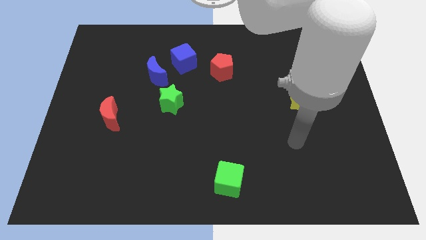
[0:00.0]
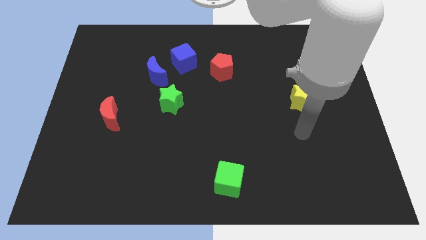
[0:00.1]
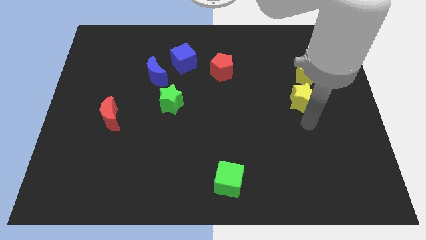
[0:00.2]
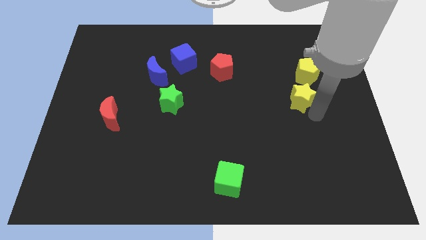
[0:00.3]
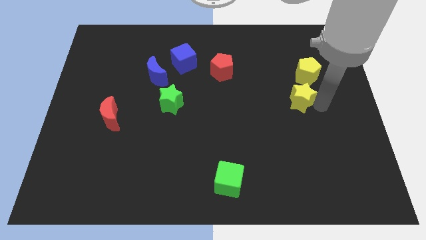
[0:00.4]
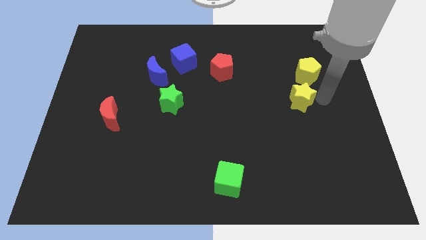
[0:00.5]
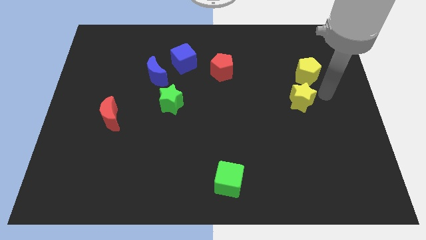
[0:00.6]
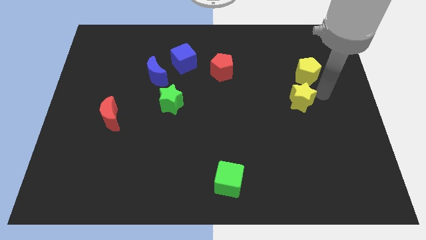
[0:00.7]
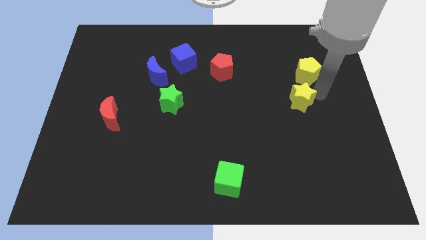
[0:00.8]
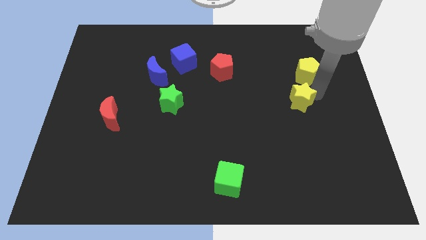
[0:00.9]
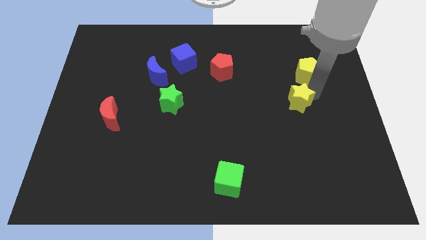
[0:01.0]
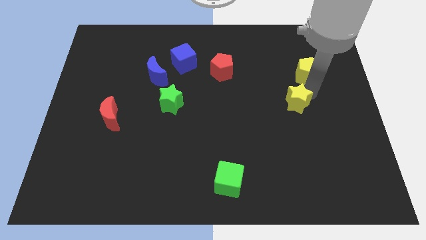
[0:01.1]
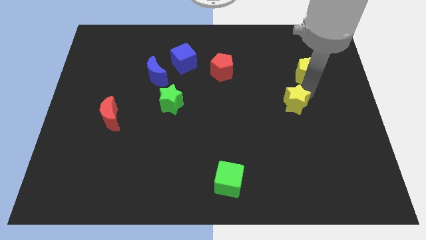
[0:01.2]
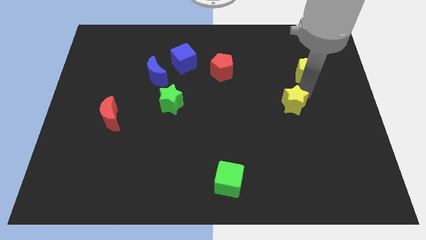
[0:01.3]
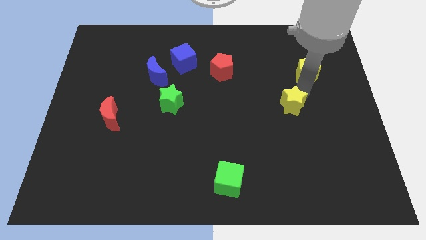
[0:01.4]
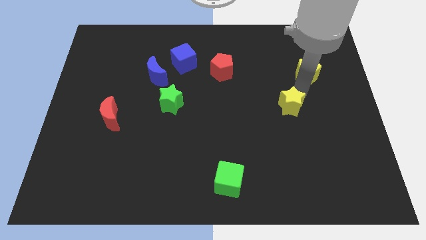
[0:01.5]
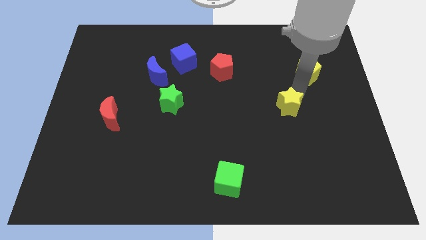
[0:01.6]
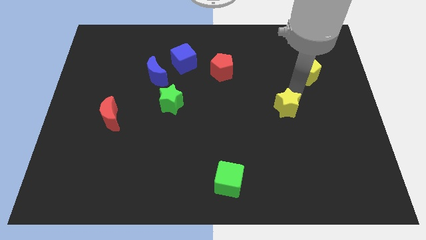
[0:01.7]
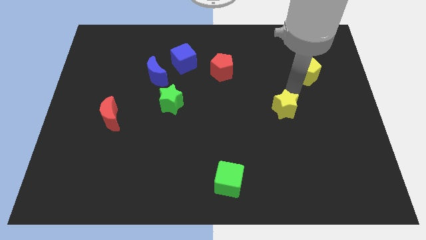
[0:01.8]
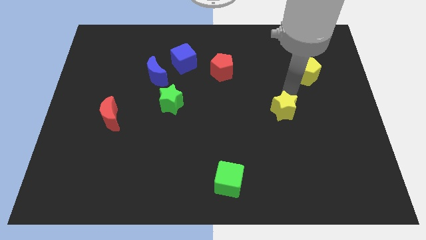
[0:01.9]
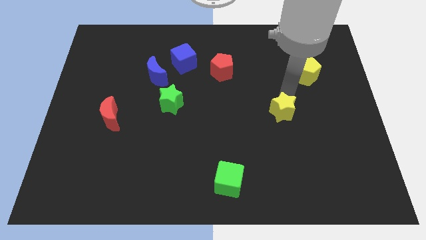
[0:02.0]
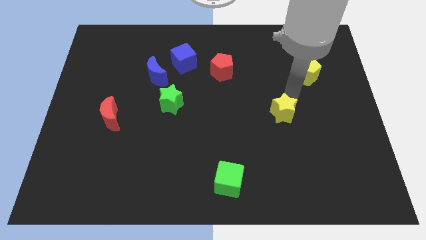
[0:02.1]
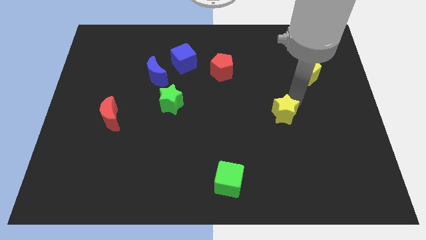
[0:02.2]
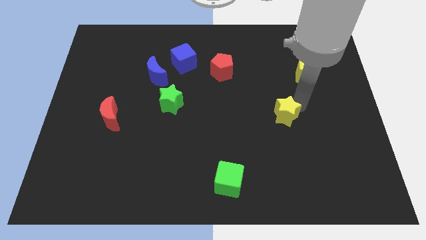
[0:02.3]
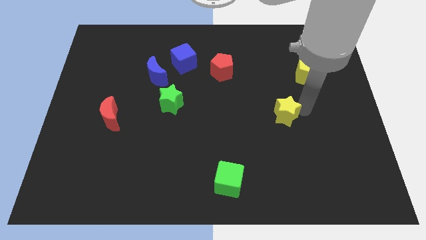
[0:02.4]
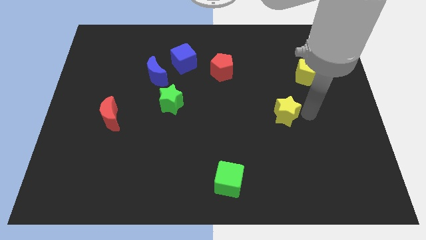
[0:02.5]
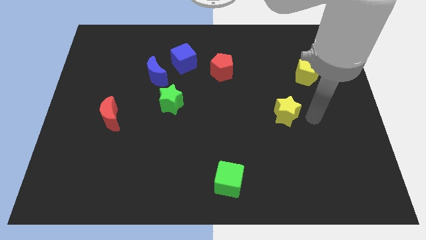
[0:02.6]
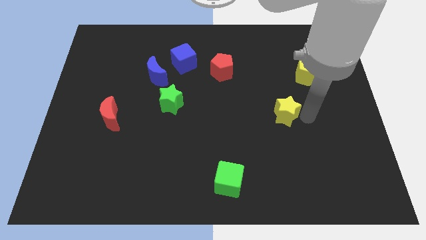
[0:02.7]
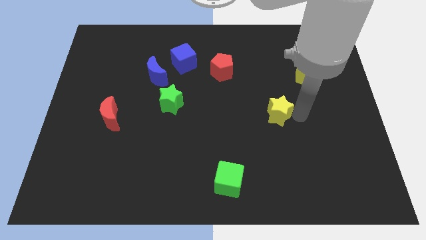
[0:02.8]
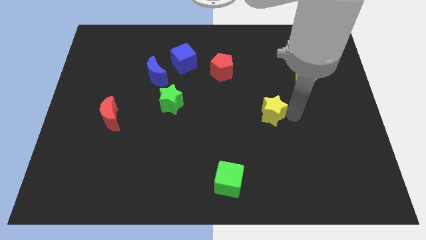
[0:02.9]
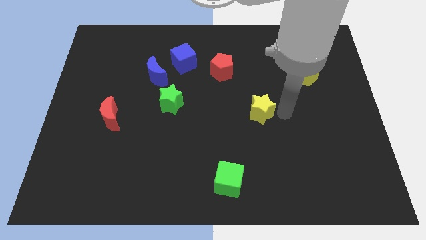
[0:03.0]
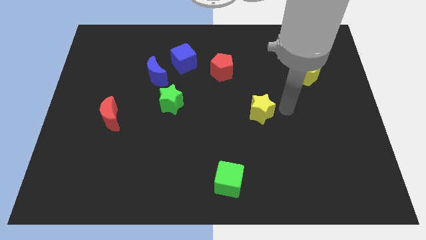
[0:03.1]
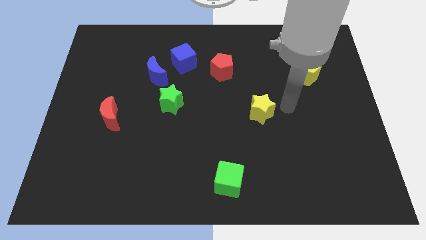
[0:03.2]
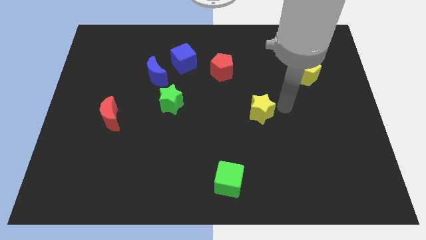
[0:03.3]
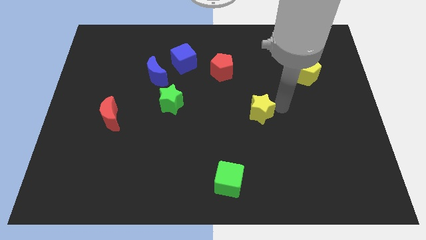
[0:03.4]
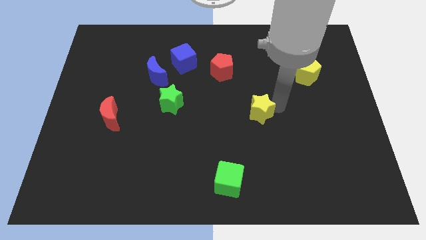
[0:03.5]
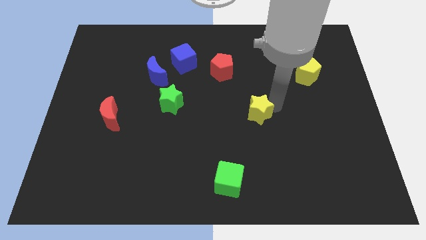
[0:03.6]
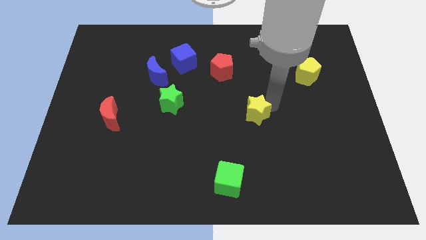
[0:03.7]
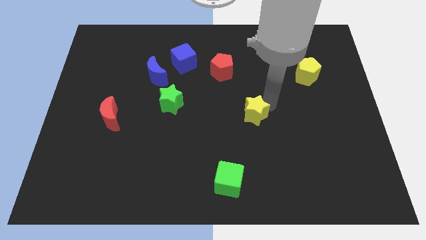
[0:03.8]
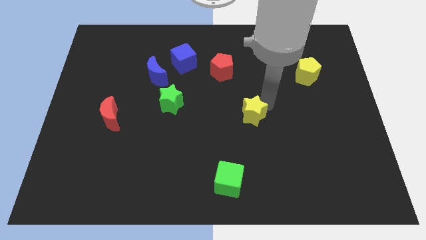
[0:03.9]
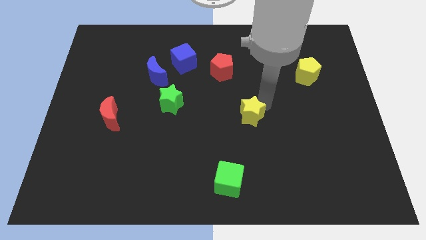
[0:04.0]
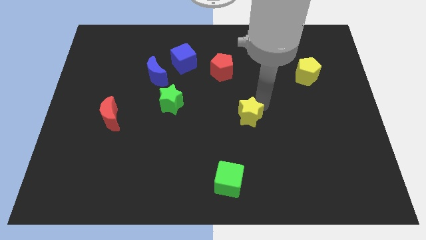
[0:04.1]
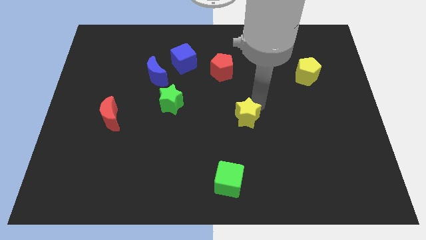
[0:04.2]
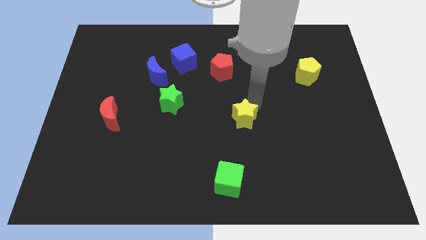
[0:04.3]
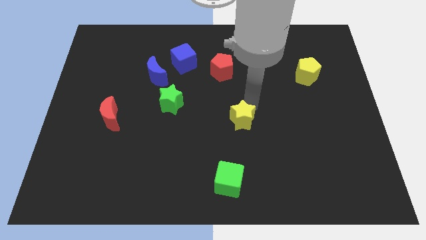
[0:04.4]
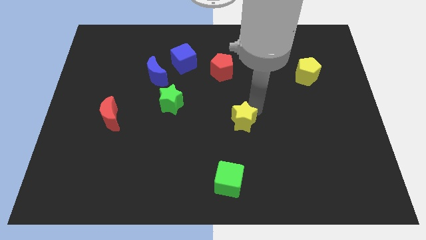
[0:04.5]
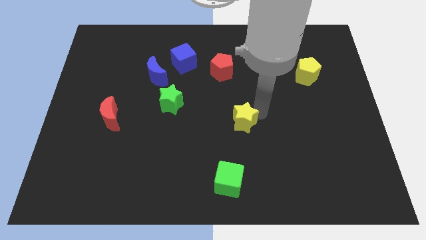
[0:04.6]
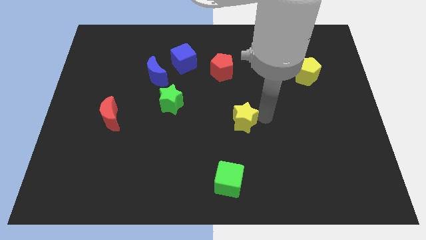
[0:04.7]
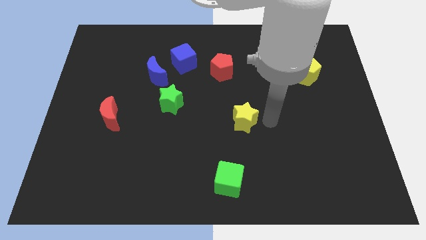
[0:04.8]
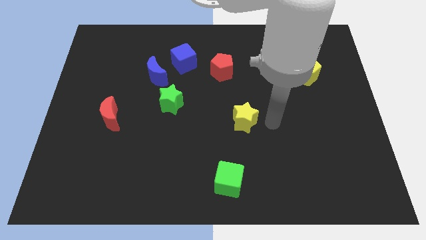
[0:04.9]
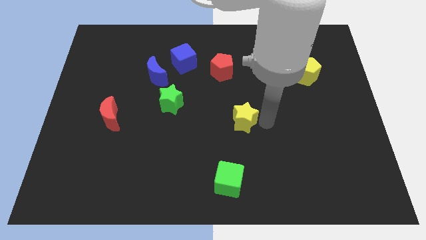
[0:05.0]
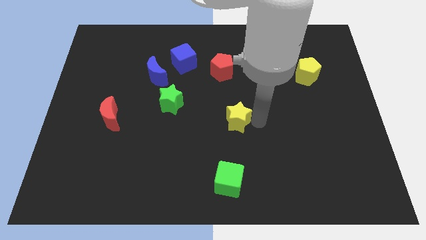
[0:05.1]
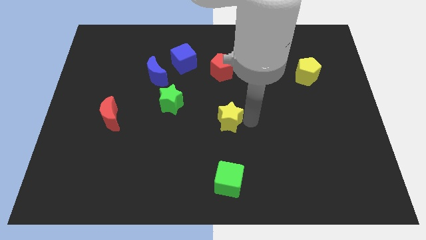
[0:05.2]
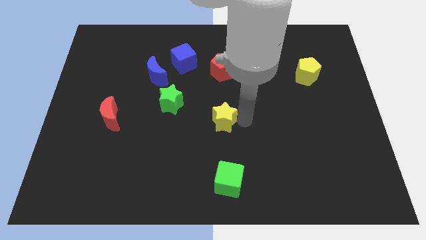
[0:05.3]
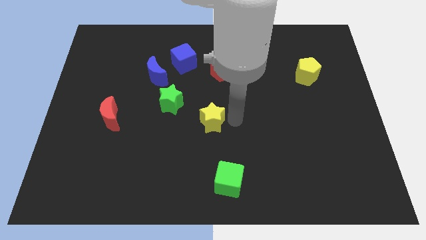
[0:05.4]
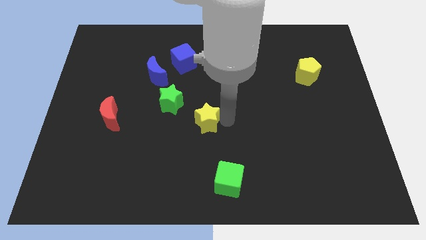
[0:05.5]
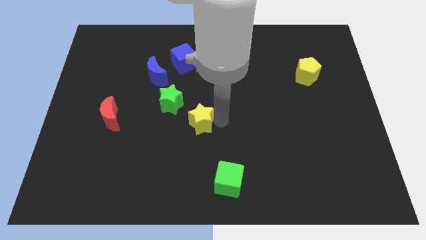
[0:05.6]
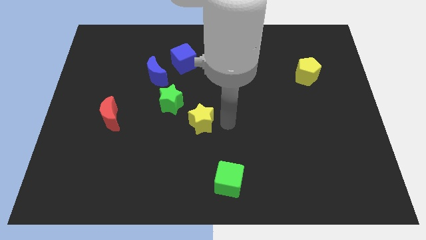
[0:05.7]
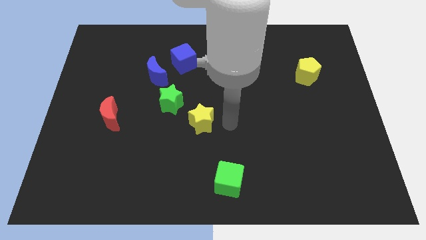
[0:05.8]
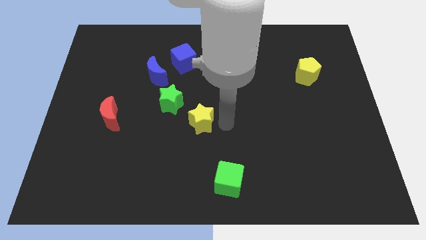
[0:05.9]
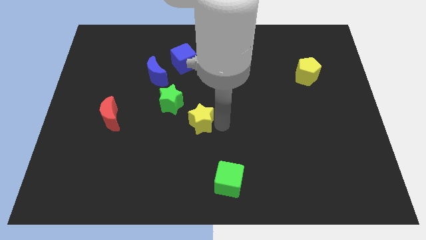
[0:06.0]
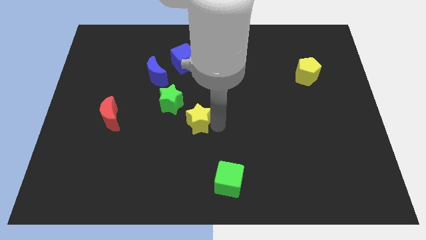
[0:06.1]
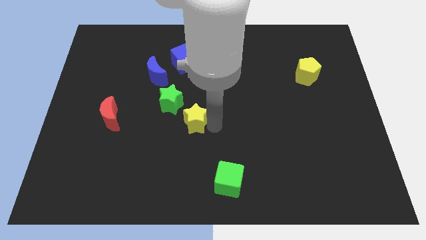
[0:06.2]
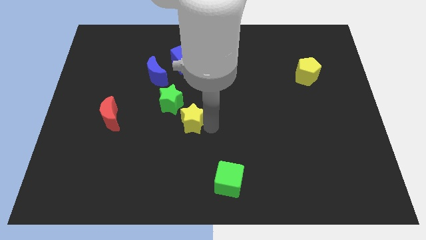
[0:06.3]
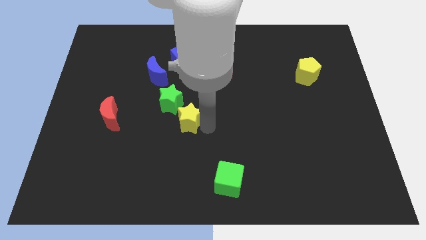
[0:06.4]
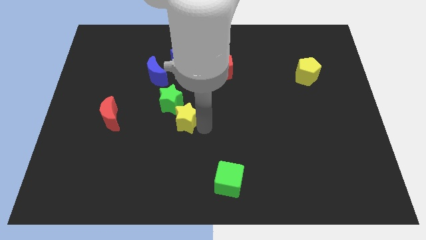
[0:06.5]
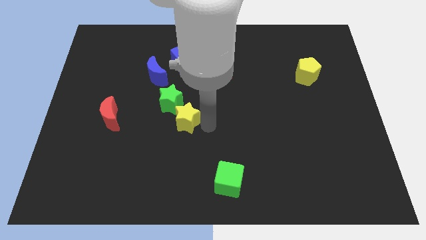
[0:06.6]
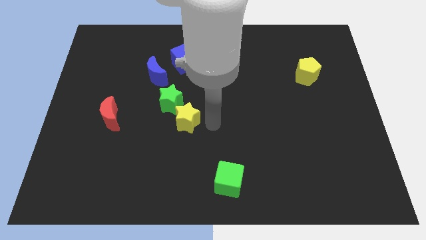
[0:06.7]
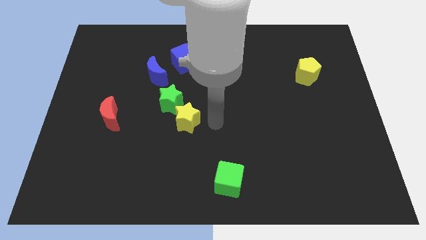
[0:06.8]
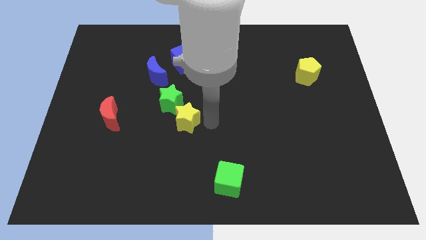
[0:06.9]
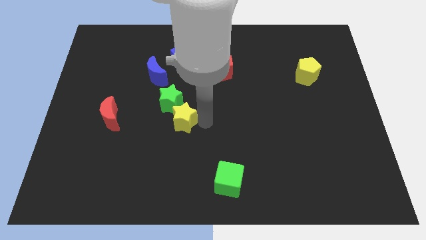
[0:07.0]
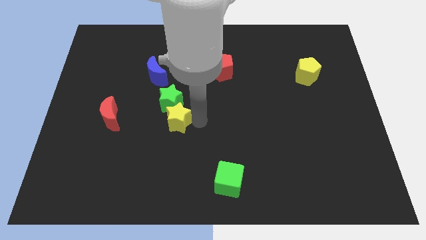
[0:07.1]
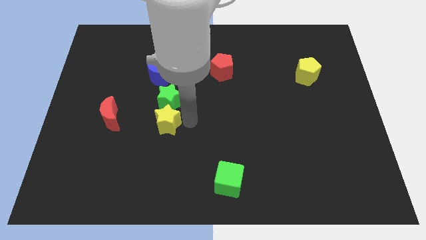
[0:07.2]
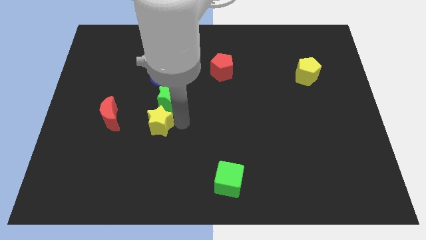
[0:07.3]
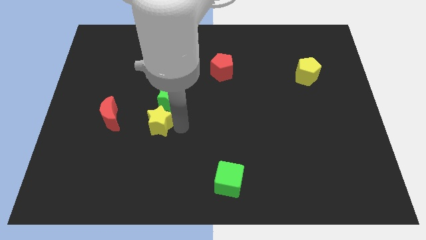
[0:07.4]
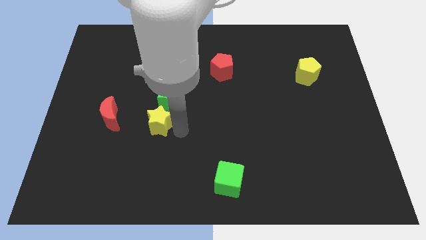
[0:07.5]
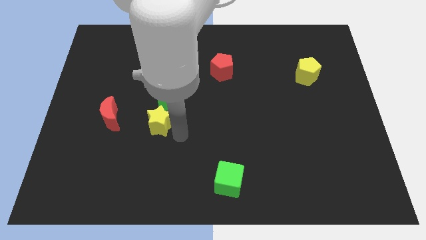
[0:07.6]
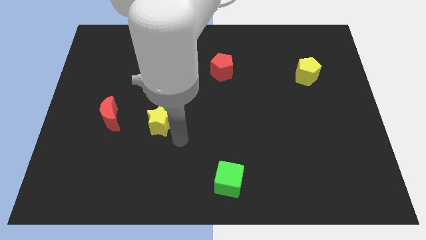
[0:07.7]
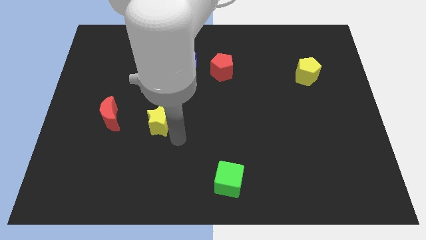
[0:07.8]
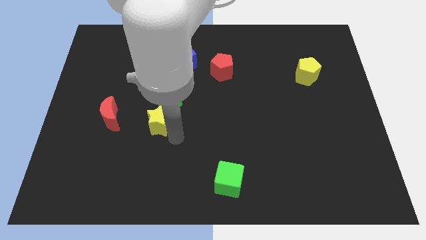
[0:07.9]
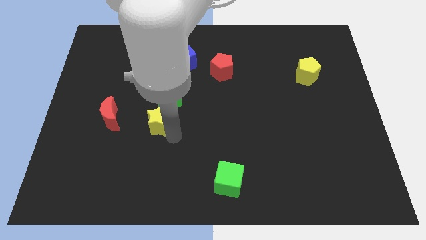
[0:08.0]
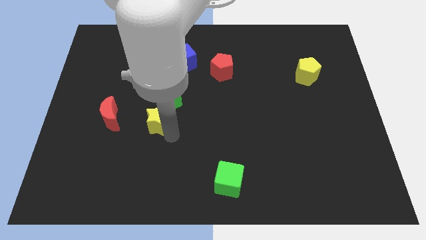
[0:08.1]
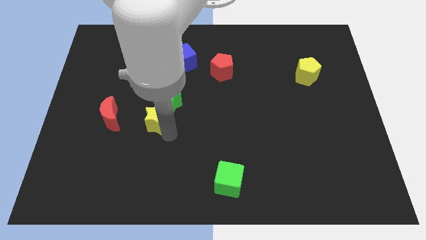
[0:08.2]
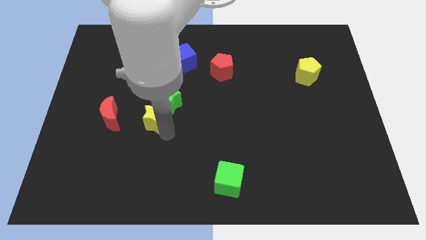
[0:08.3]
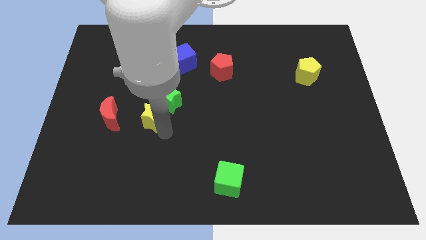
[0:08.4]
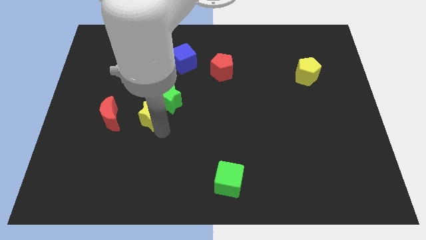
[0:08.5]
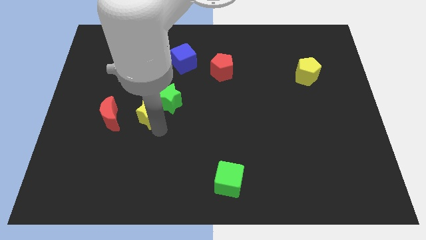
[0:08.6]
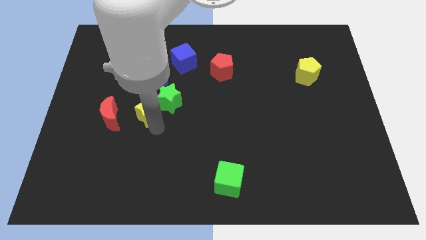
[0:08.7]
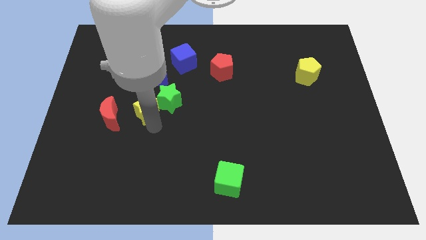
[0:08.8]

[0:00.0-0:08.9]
slide the yellow star to the top right side of the red moon
